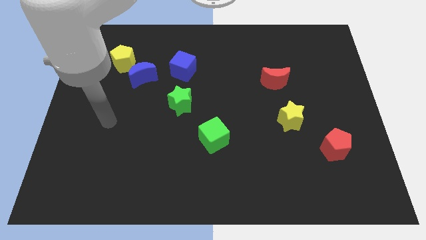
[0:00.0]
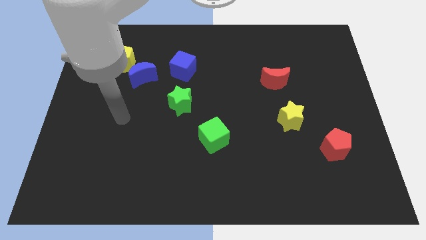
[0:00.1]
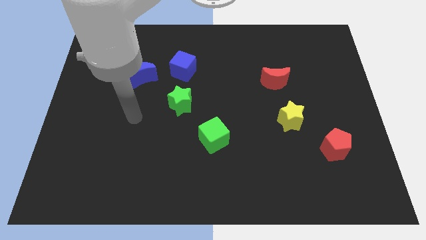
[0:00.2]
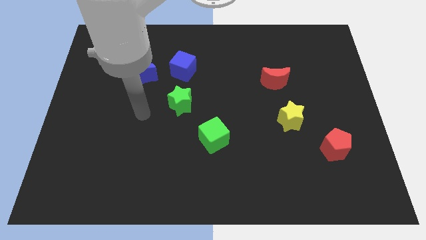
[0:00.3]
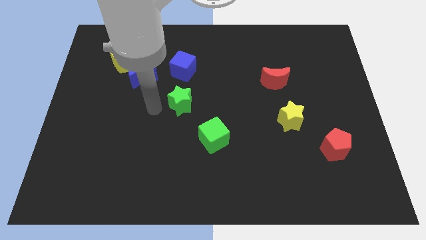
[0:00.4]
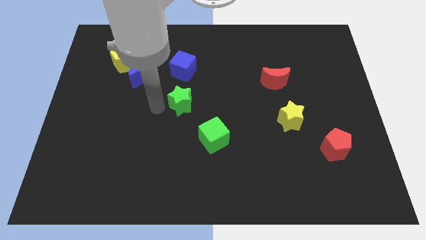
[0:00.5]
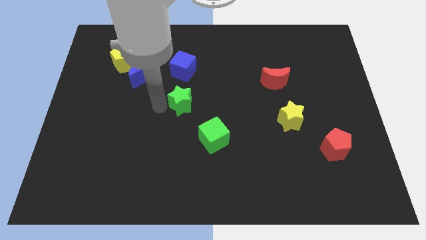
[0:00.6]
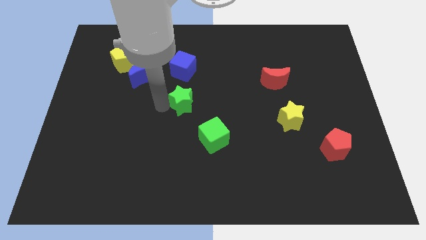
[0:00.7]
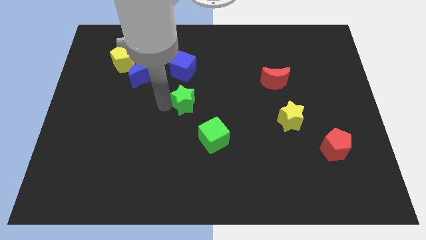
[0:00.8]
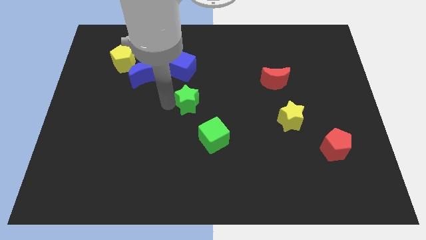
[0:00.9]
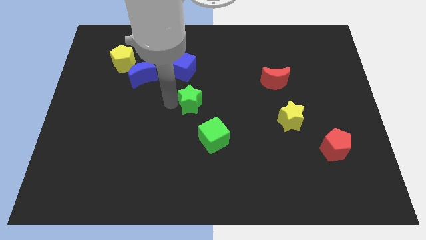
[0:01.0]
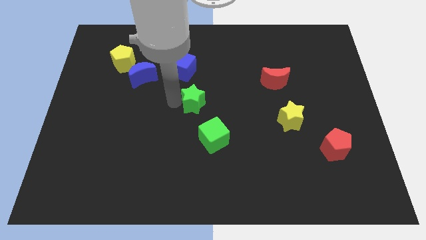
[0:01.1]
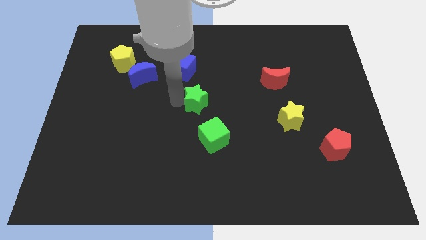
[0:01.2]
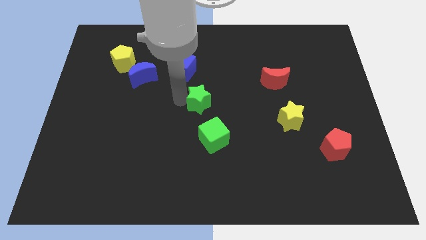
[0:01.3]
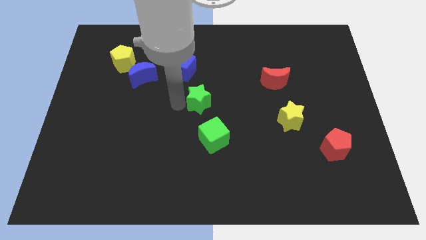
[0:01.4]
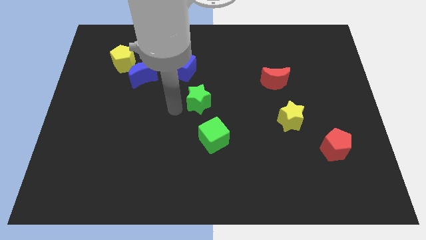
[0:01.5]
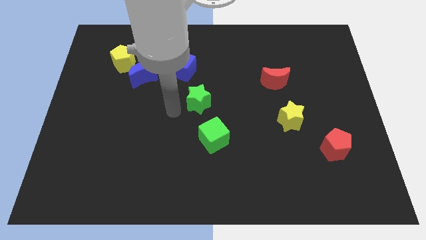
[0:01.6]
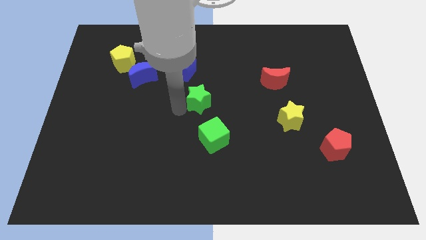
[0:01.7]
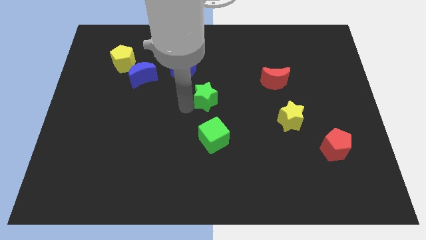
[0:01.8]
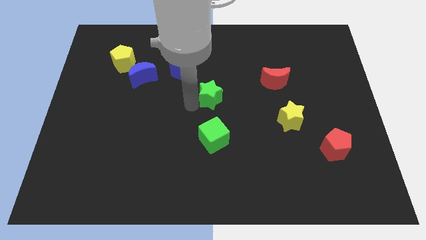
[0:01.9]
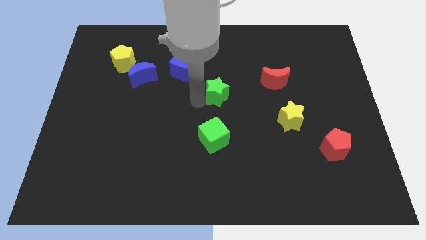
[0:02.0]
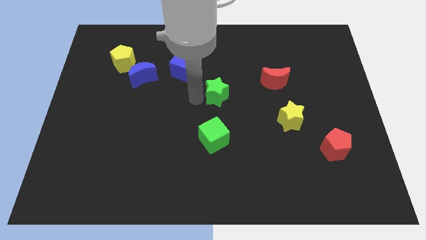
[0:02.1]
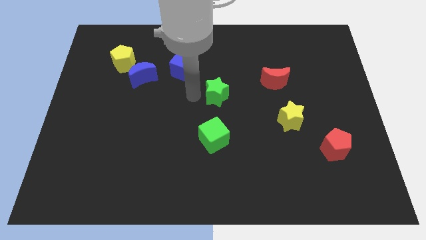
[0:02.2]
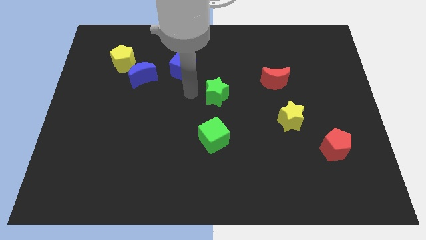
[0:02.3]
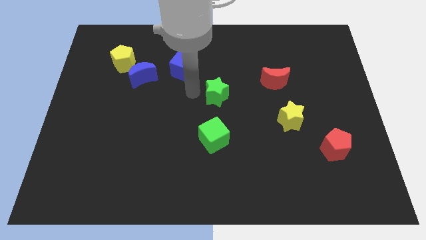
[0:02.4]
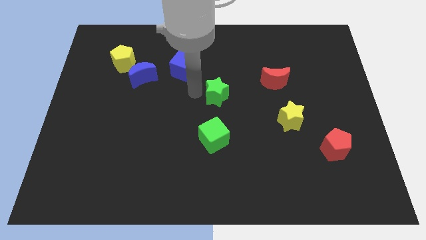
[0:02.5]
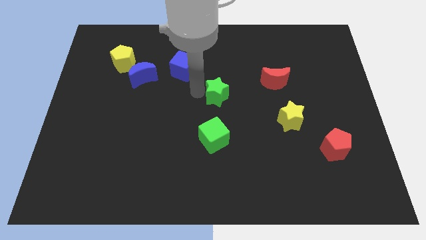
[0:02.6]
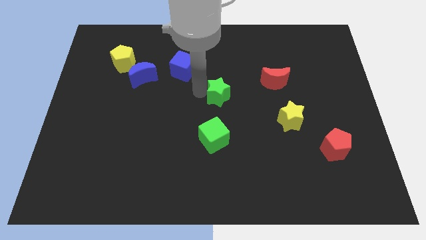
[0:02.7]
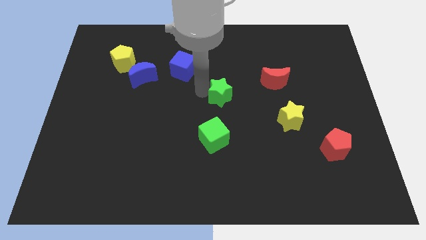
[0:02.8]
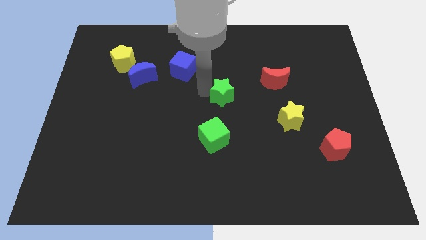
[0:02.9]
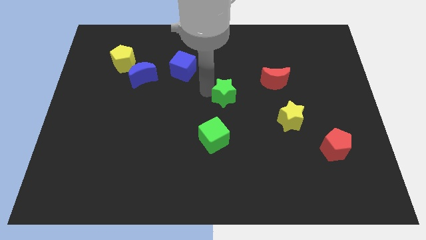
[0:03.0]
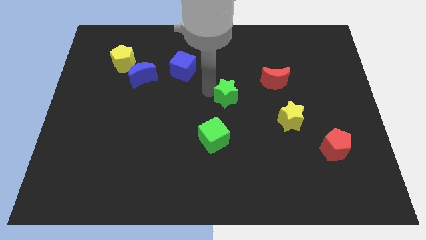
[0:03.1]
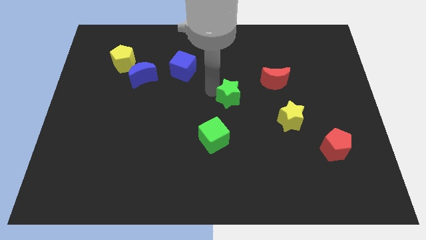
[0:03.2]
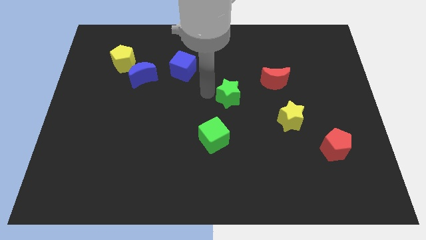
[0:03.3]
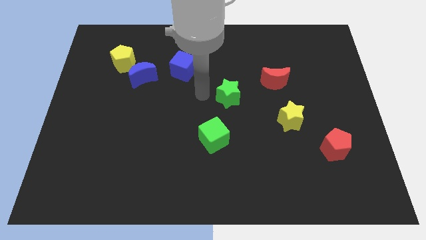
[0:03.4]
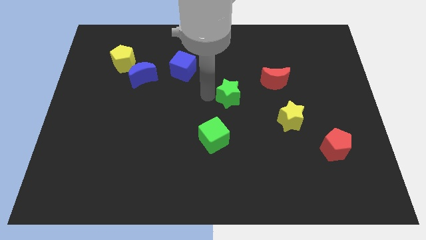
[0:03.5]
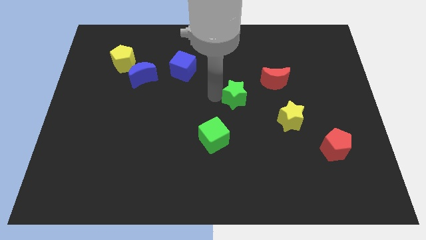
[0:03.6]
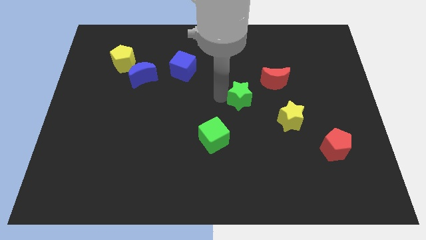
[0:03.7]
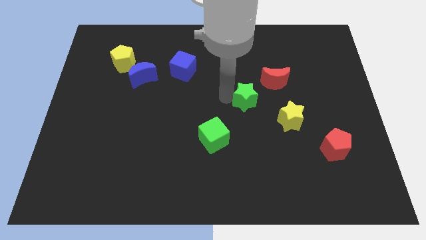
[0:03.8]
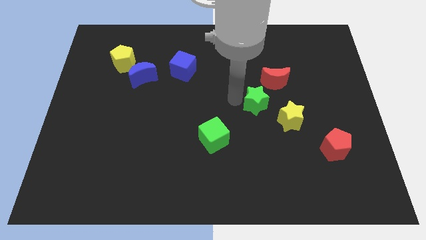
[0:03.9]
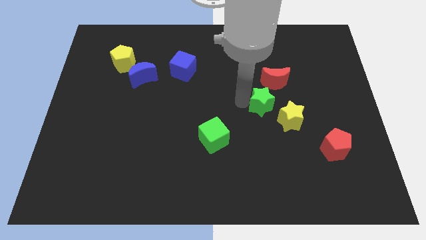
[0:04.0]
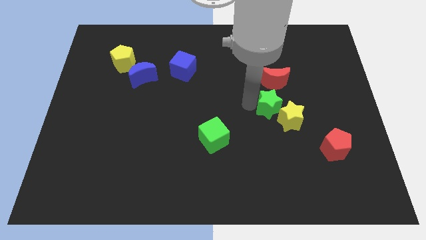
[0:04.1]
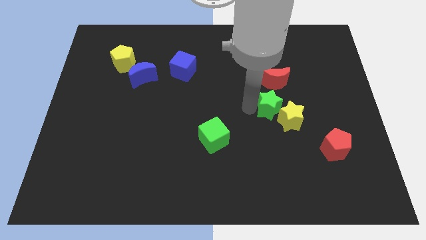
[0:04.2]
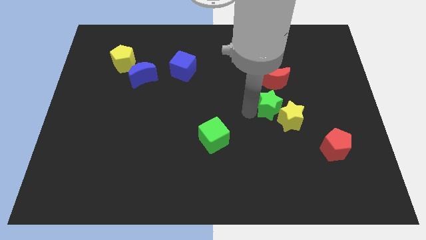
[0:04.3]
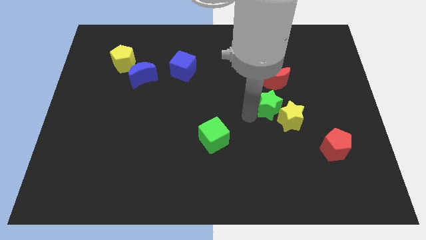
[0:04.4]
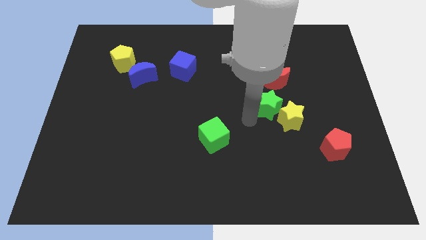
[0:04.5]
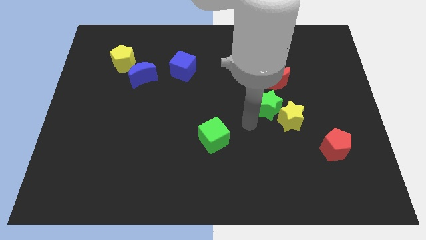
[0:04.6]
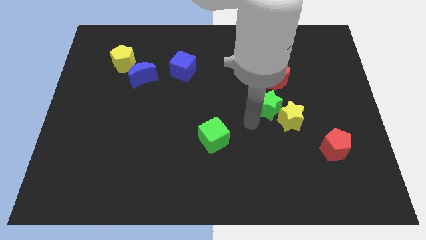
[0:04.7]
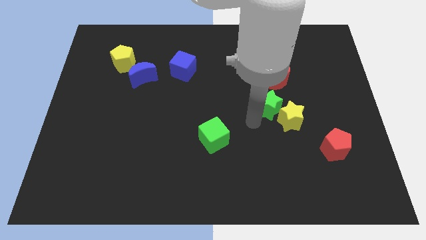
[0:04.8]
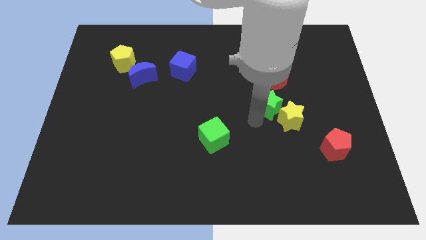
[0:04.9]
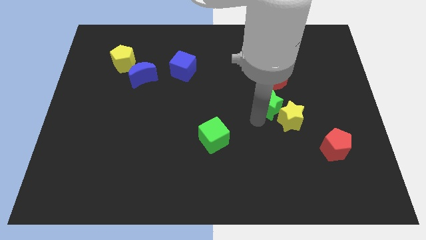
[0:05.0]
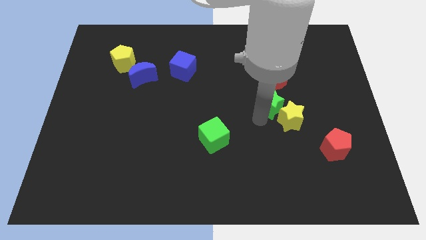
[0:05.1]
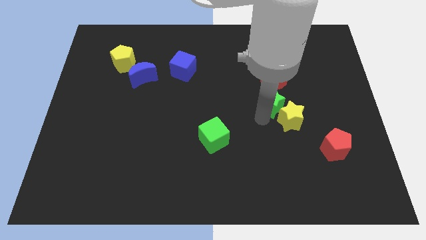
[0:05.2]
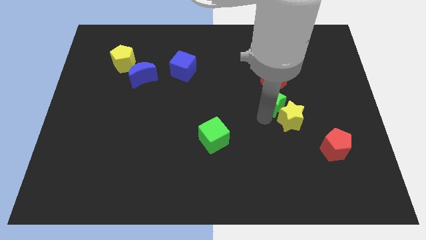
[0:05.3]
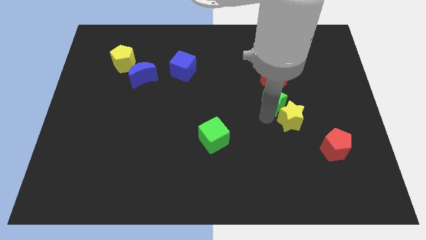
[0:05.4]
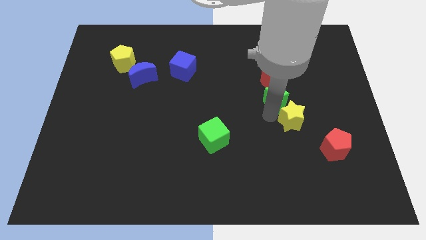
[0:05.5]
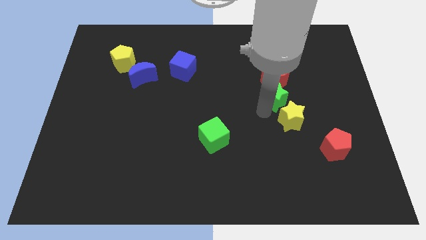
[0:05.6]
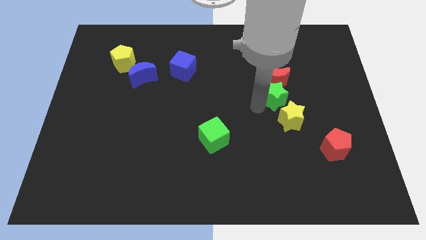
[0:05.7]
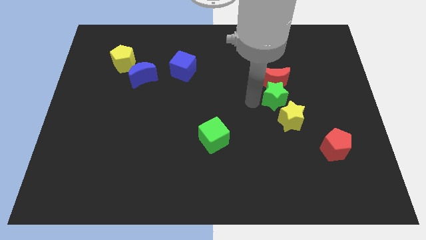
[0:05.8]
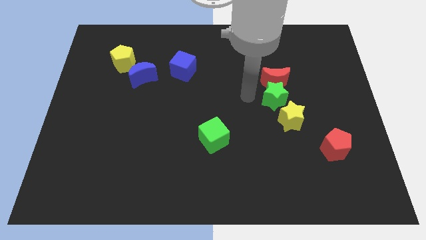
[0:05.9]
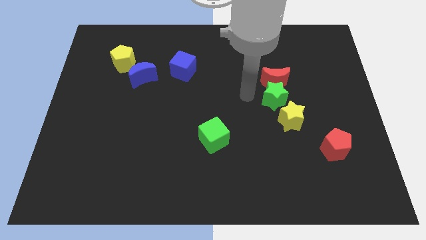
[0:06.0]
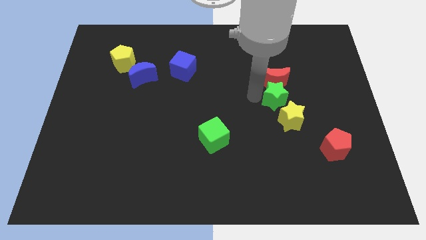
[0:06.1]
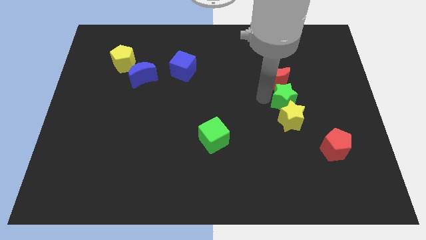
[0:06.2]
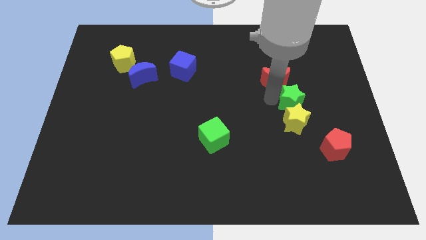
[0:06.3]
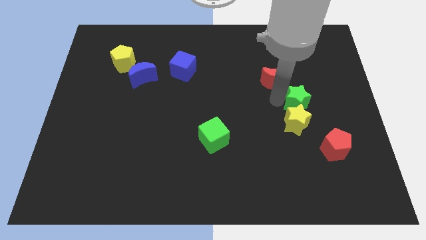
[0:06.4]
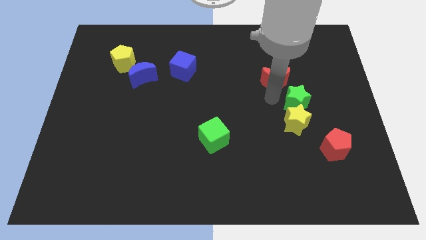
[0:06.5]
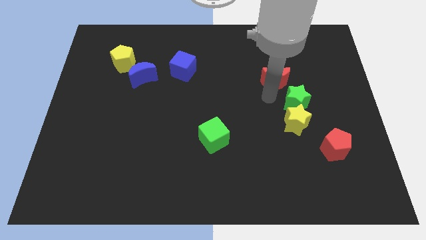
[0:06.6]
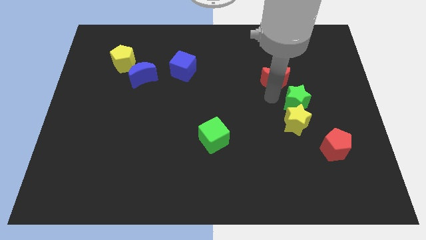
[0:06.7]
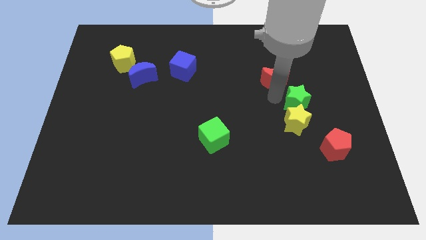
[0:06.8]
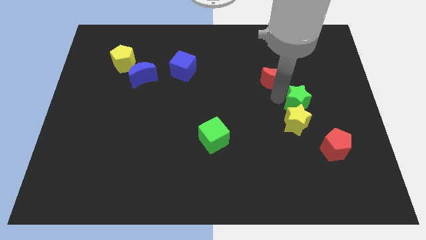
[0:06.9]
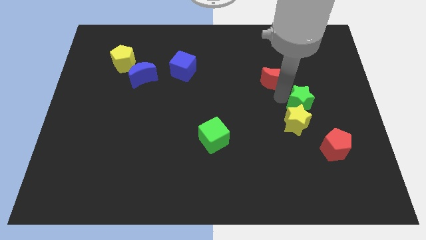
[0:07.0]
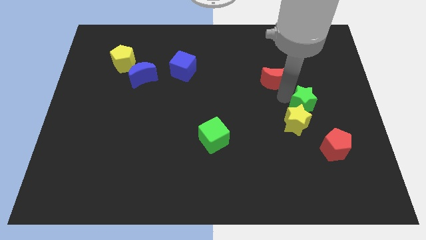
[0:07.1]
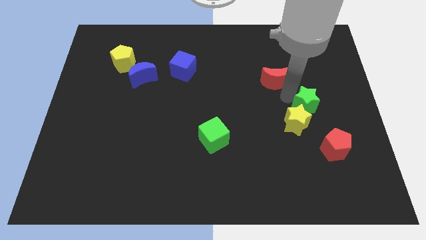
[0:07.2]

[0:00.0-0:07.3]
slide the green star to the top of the red pentagon
